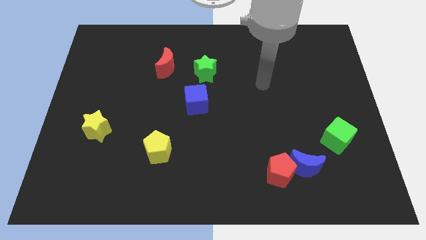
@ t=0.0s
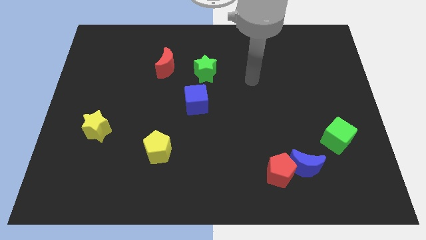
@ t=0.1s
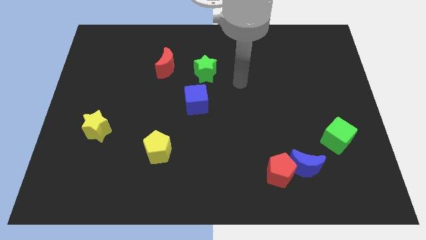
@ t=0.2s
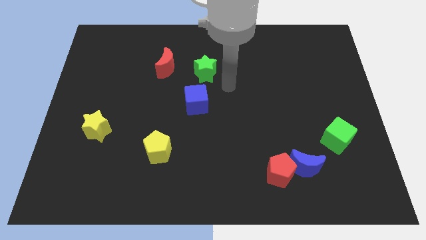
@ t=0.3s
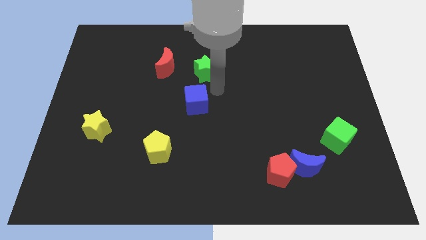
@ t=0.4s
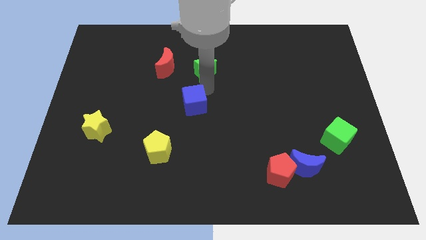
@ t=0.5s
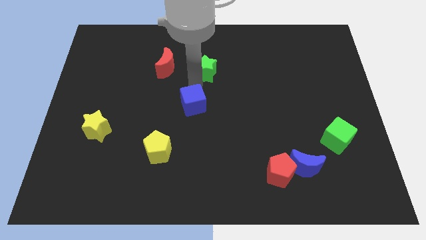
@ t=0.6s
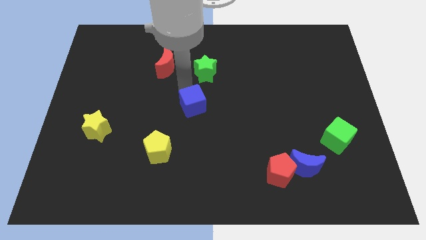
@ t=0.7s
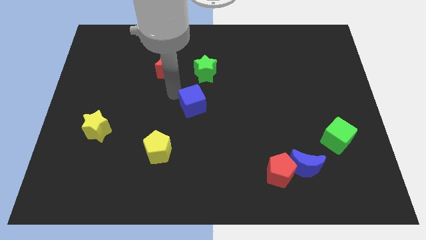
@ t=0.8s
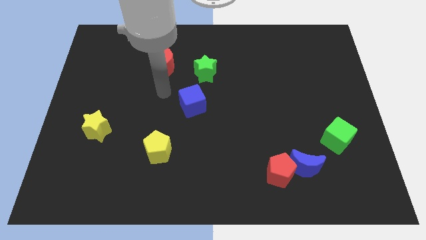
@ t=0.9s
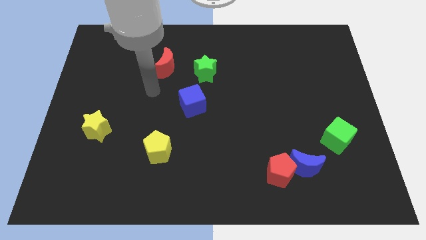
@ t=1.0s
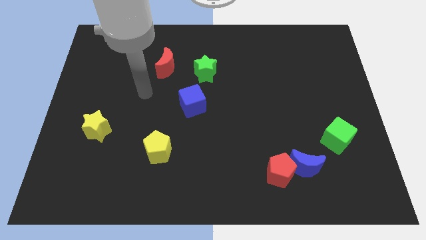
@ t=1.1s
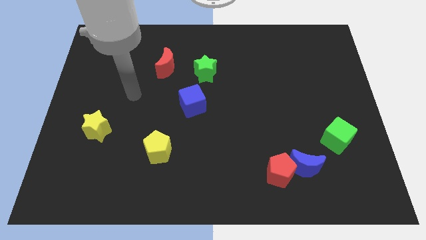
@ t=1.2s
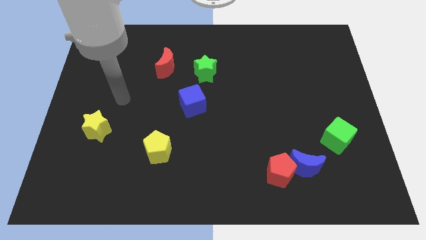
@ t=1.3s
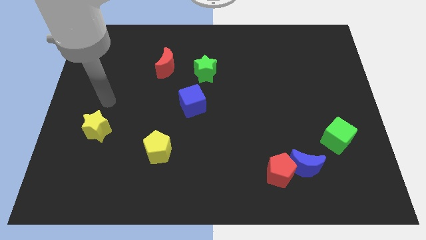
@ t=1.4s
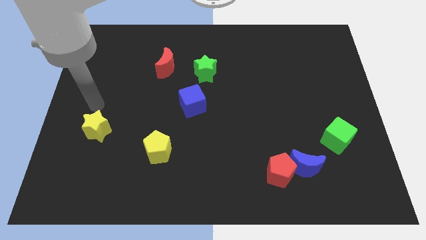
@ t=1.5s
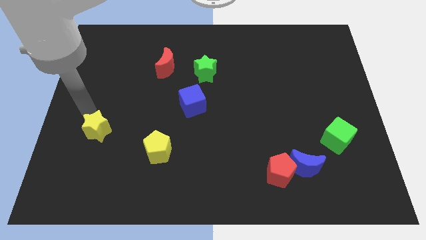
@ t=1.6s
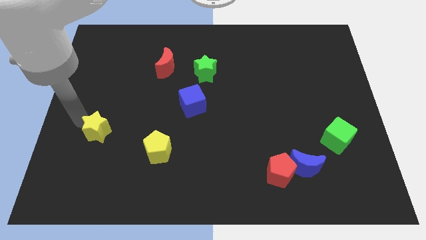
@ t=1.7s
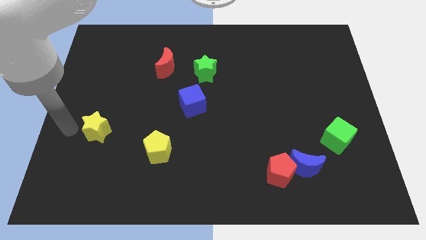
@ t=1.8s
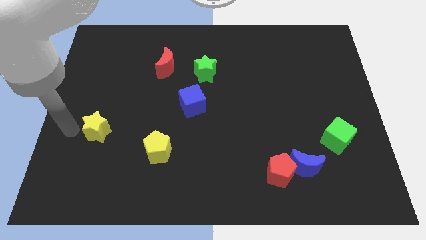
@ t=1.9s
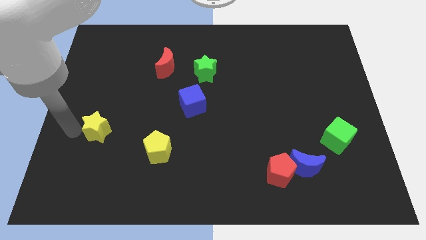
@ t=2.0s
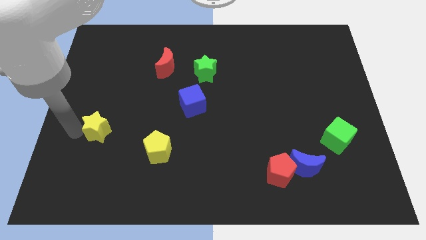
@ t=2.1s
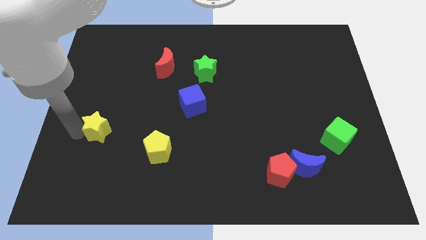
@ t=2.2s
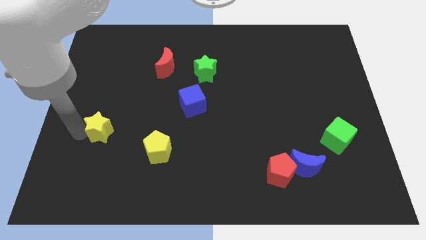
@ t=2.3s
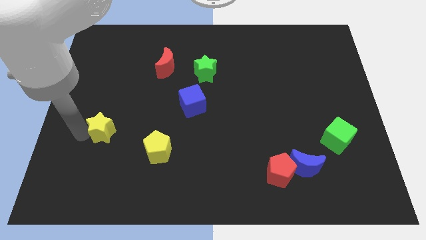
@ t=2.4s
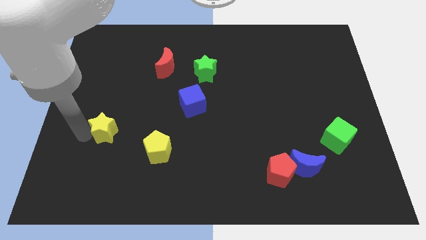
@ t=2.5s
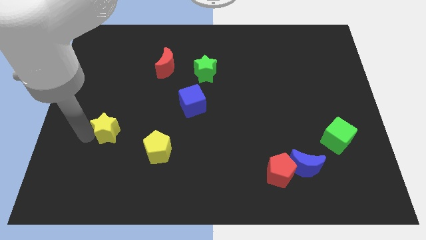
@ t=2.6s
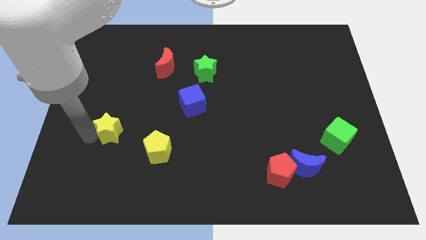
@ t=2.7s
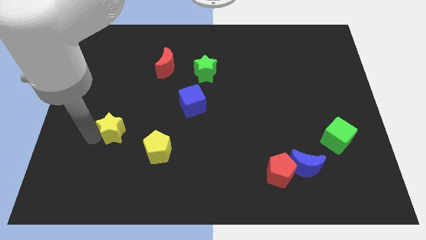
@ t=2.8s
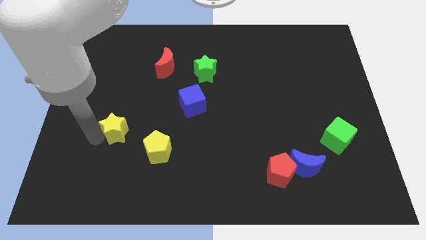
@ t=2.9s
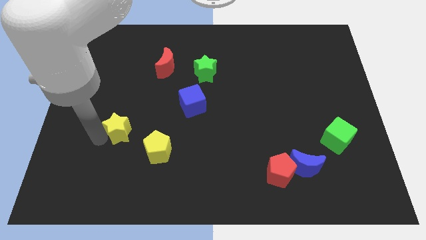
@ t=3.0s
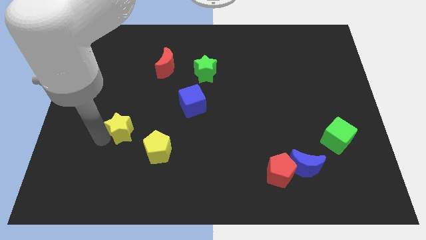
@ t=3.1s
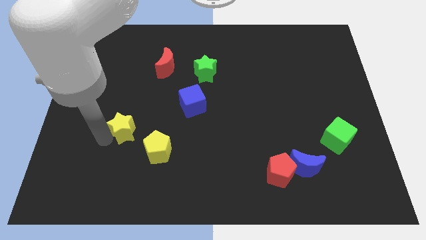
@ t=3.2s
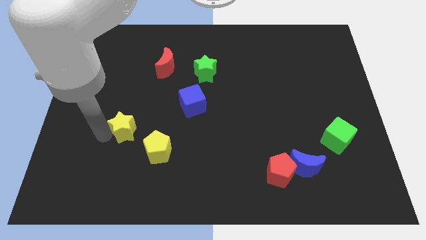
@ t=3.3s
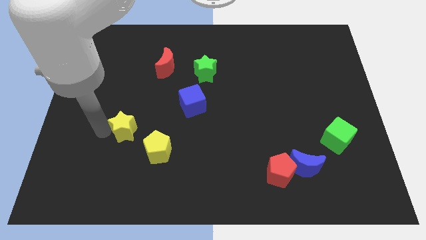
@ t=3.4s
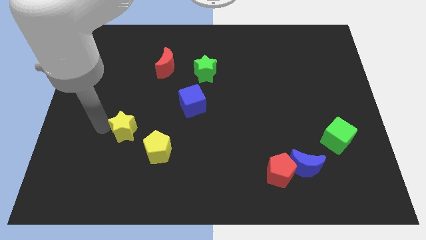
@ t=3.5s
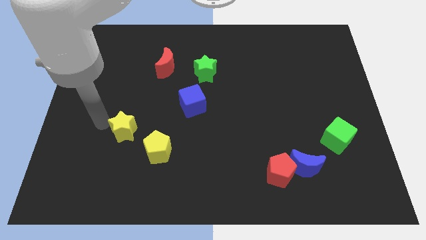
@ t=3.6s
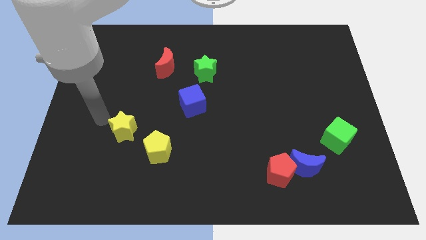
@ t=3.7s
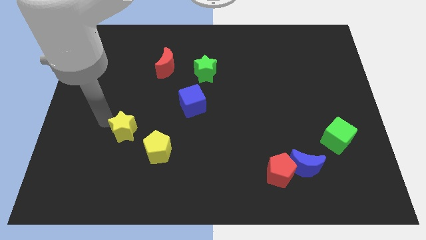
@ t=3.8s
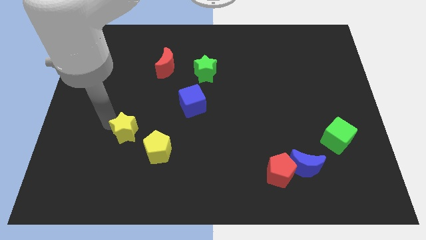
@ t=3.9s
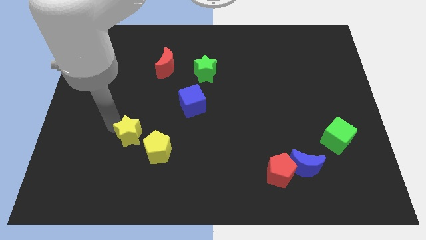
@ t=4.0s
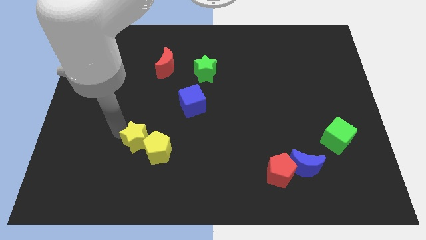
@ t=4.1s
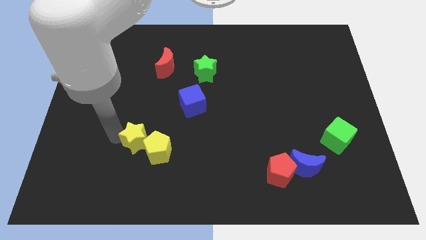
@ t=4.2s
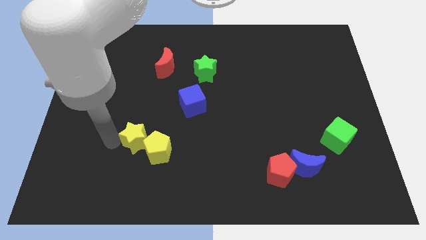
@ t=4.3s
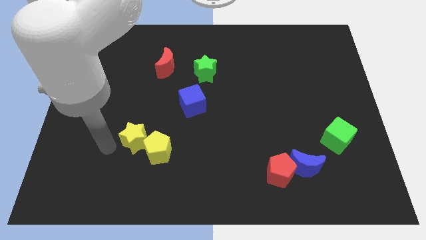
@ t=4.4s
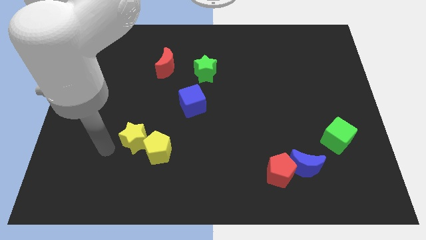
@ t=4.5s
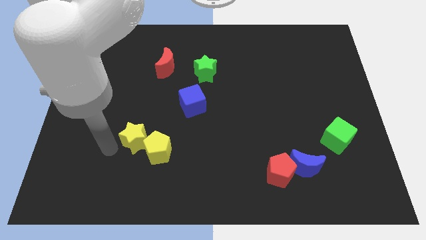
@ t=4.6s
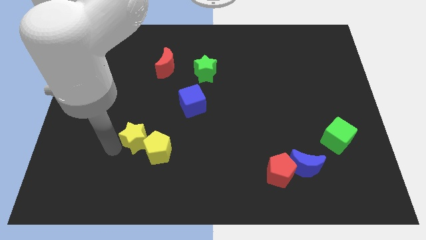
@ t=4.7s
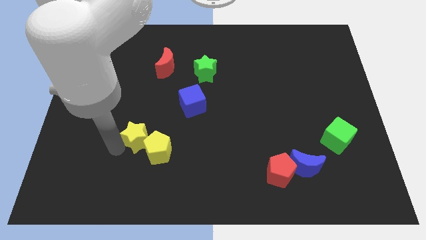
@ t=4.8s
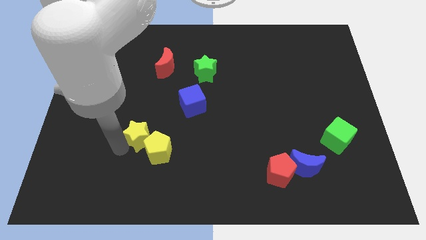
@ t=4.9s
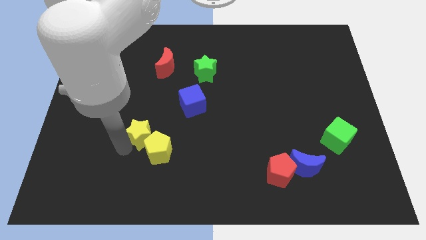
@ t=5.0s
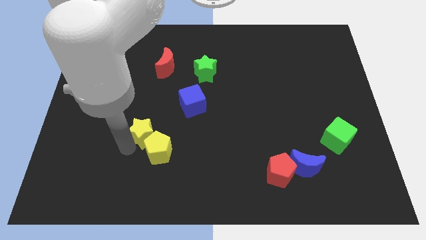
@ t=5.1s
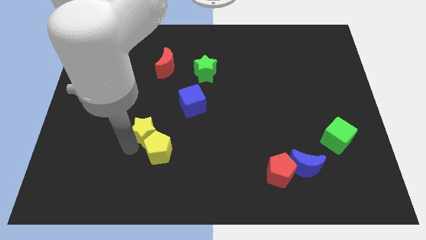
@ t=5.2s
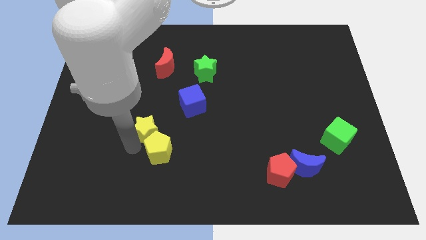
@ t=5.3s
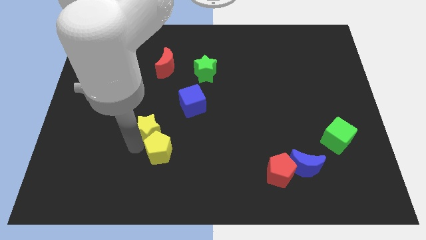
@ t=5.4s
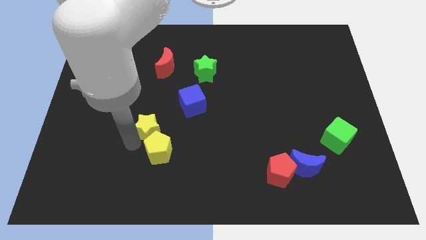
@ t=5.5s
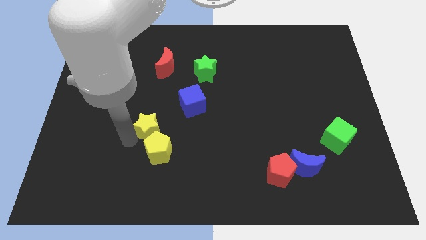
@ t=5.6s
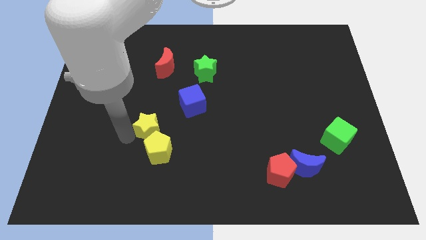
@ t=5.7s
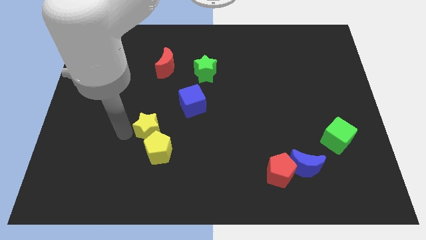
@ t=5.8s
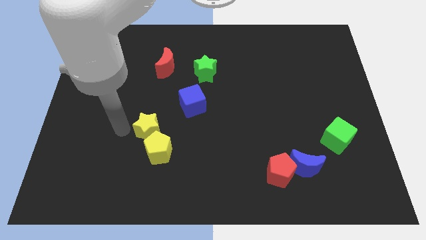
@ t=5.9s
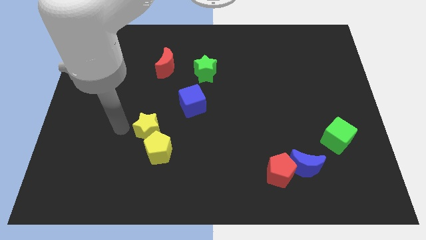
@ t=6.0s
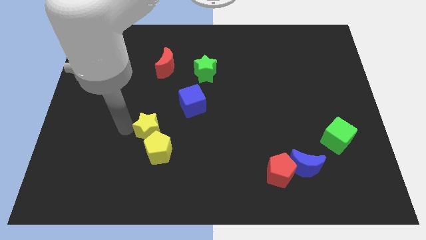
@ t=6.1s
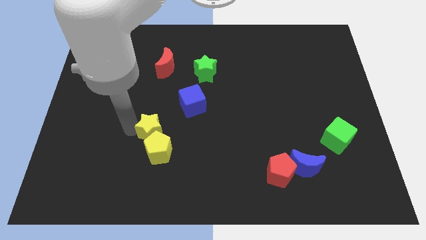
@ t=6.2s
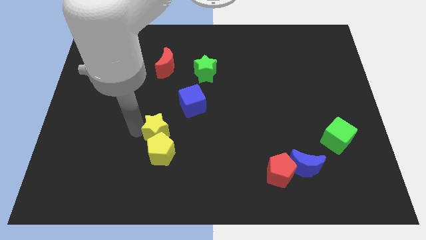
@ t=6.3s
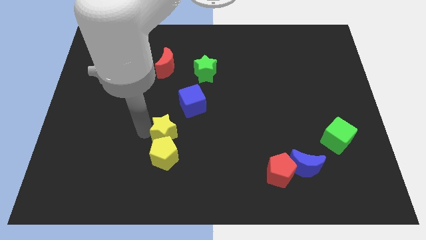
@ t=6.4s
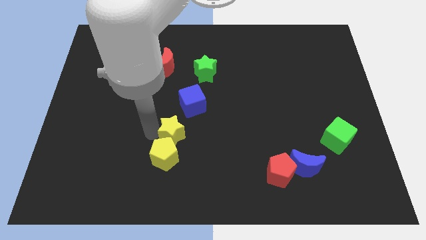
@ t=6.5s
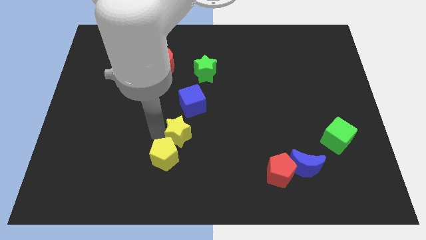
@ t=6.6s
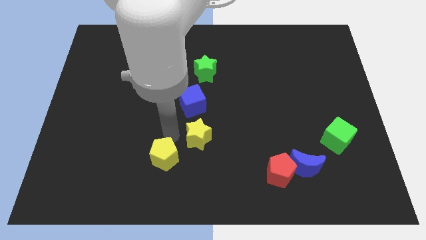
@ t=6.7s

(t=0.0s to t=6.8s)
slide the yellow star to the right

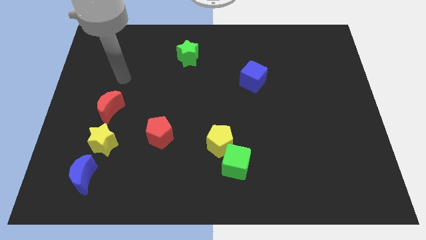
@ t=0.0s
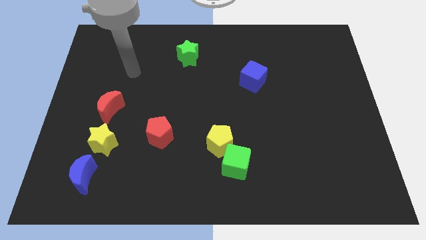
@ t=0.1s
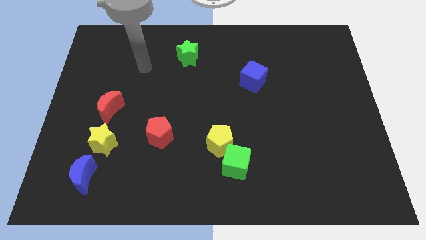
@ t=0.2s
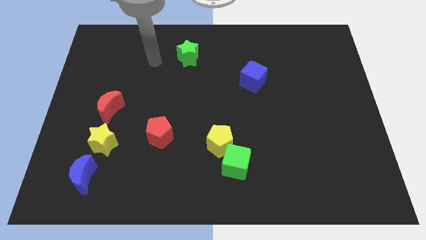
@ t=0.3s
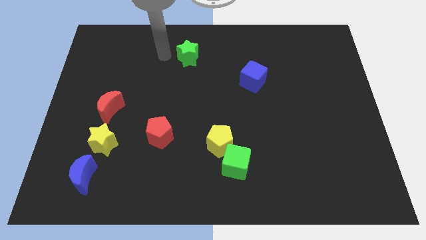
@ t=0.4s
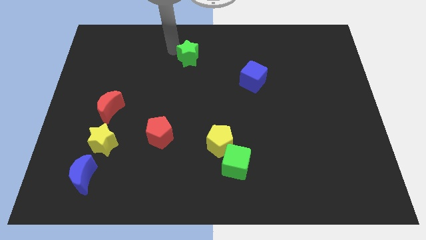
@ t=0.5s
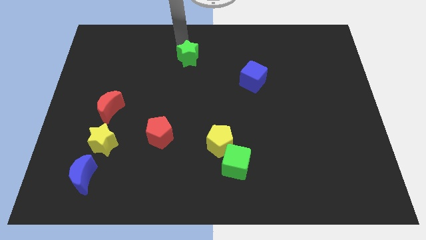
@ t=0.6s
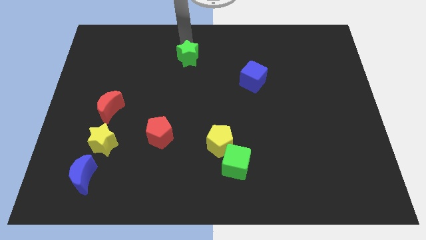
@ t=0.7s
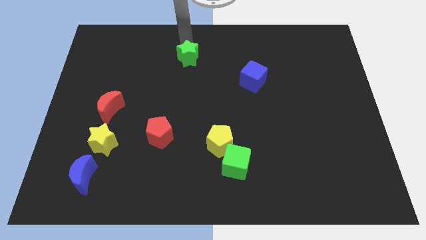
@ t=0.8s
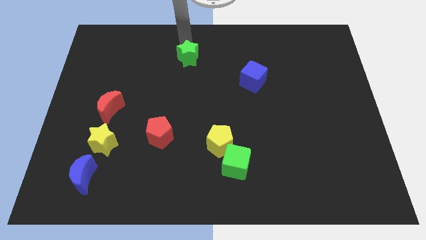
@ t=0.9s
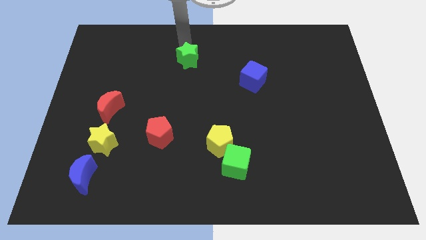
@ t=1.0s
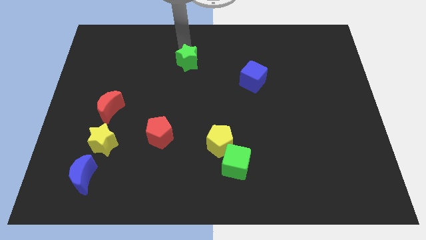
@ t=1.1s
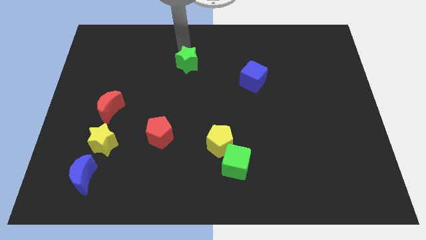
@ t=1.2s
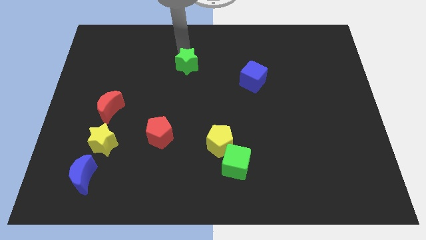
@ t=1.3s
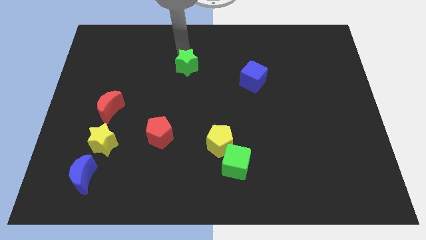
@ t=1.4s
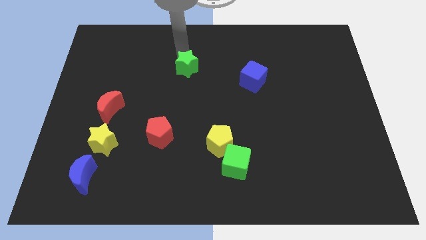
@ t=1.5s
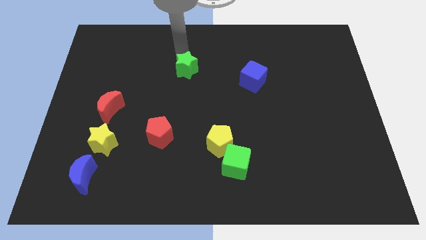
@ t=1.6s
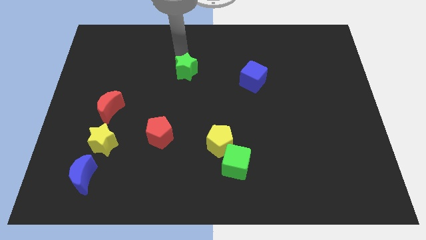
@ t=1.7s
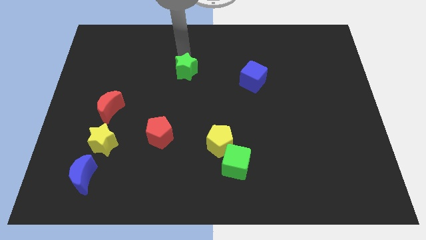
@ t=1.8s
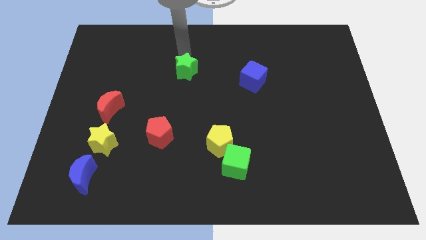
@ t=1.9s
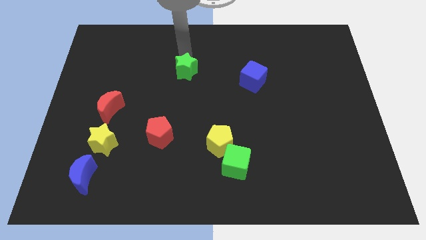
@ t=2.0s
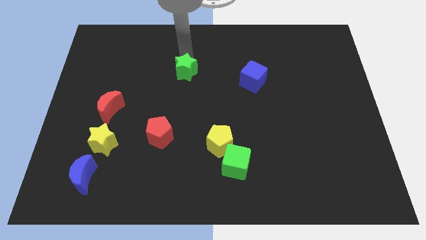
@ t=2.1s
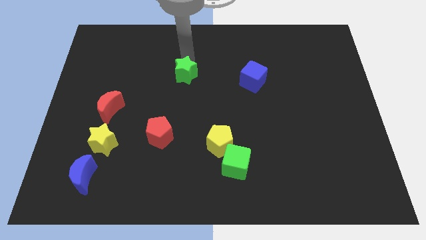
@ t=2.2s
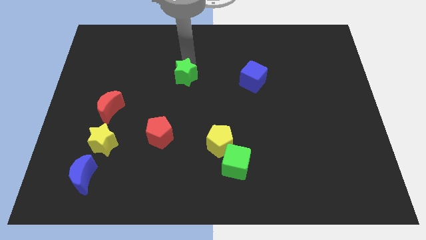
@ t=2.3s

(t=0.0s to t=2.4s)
slightly slide the green star down
